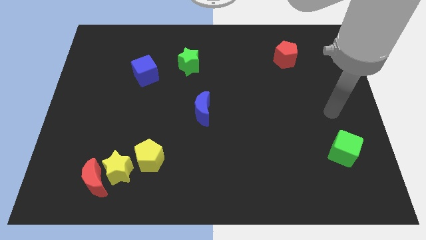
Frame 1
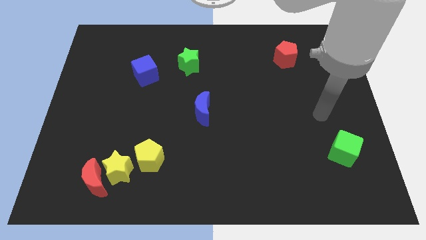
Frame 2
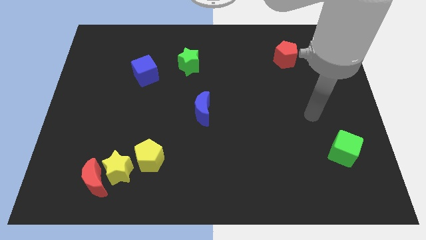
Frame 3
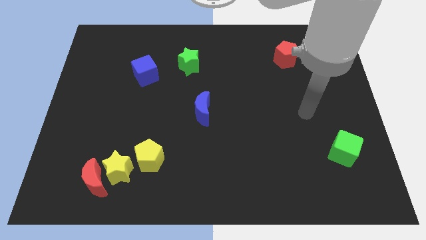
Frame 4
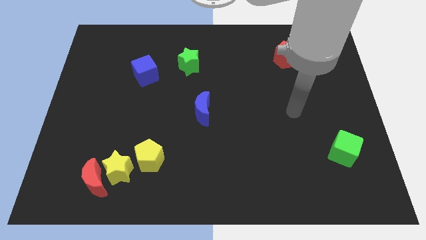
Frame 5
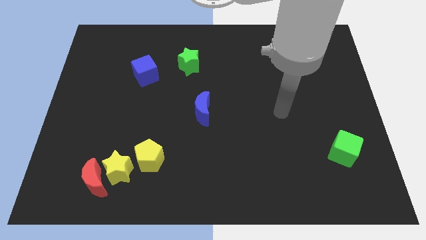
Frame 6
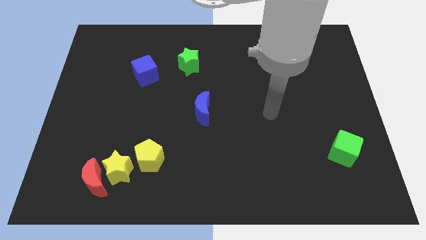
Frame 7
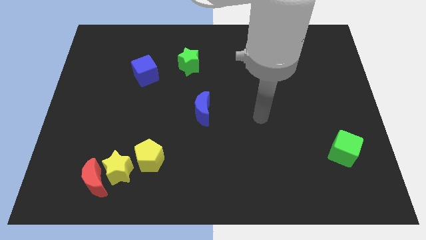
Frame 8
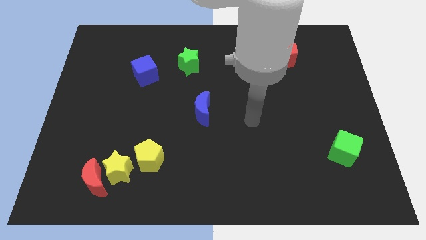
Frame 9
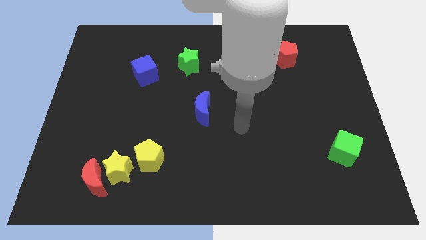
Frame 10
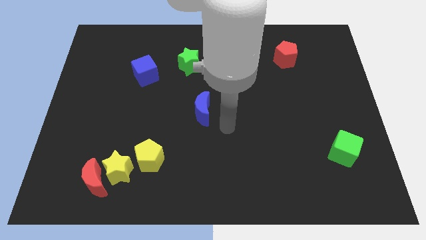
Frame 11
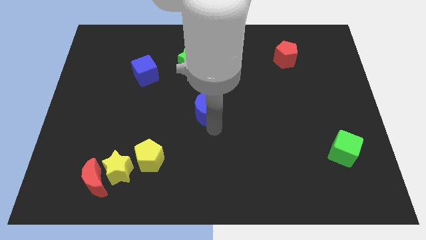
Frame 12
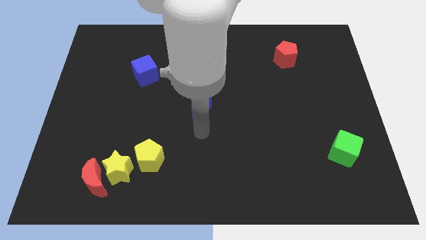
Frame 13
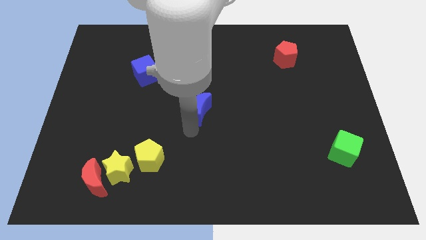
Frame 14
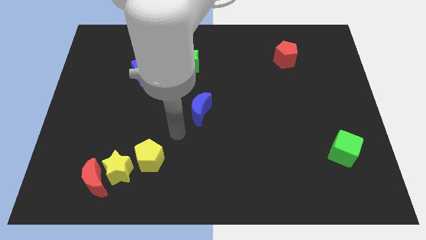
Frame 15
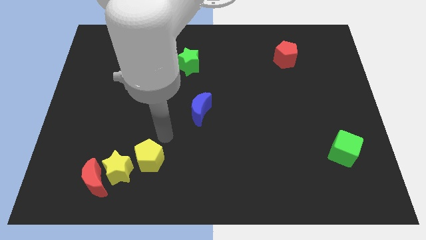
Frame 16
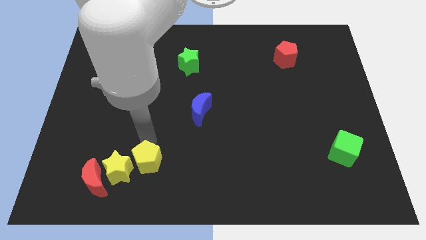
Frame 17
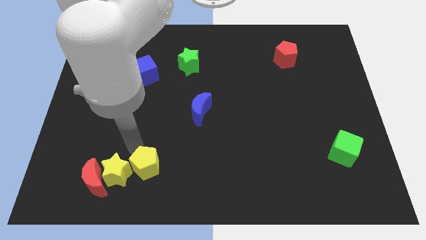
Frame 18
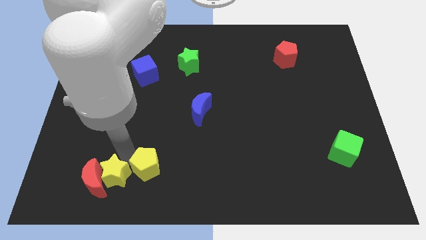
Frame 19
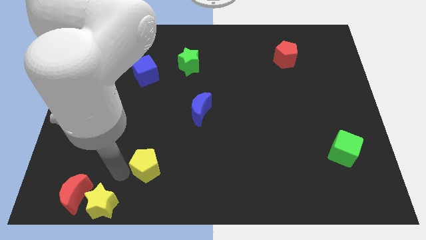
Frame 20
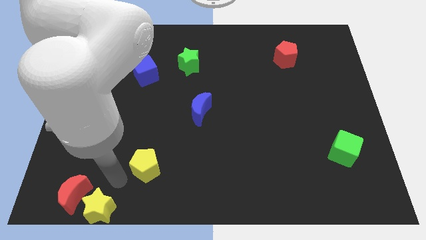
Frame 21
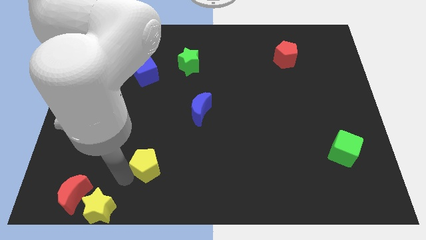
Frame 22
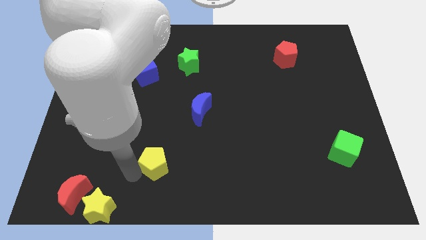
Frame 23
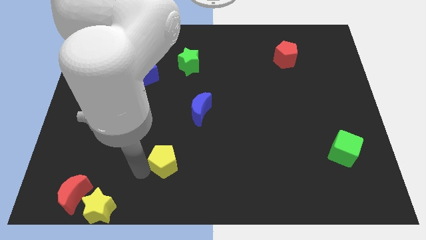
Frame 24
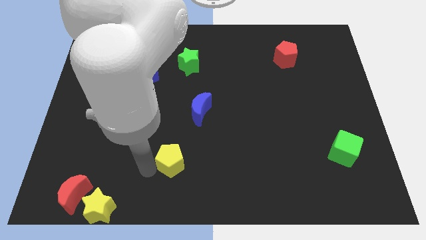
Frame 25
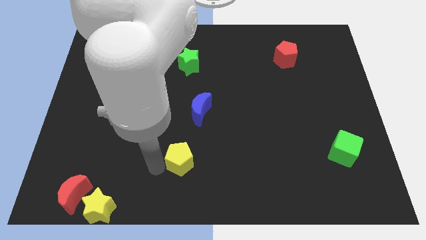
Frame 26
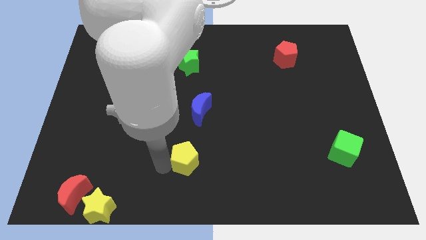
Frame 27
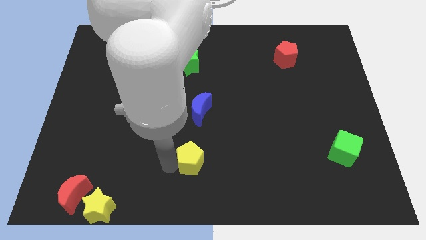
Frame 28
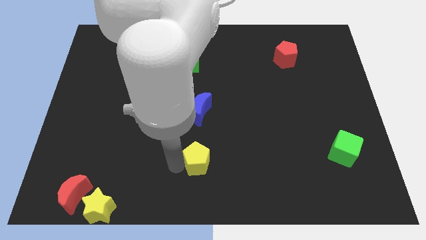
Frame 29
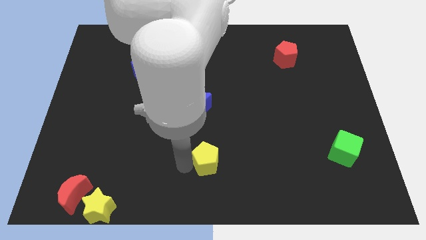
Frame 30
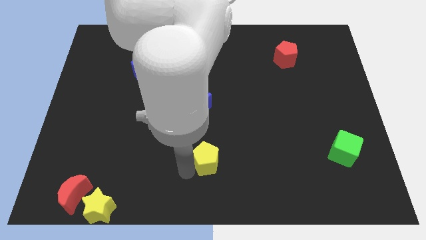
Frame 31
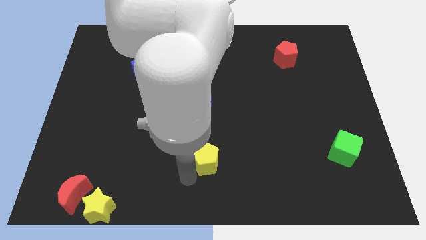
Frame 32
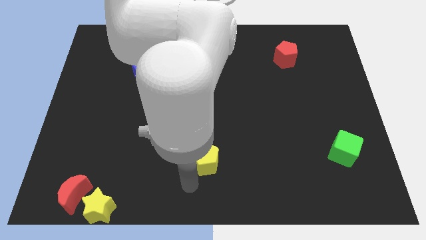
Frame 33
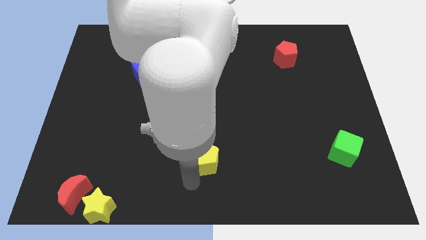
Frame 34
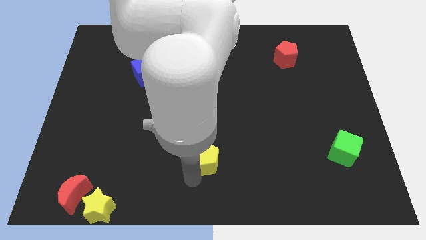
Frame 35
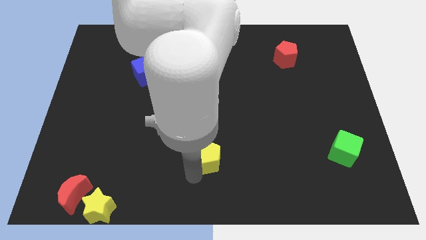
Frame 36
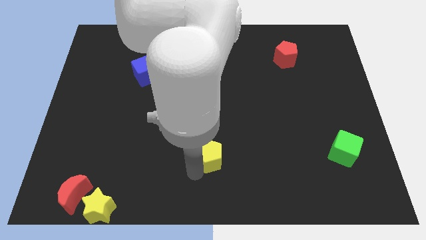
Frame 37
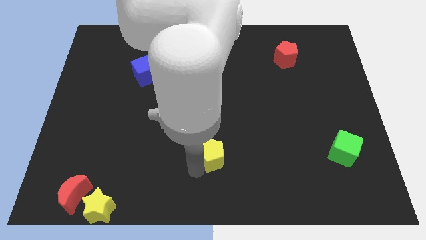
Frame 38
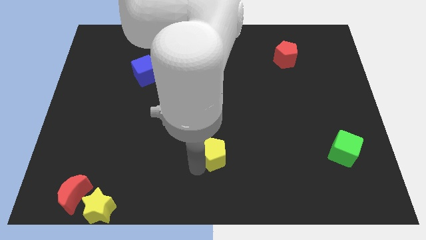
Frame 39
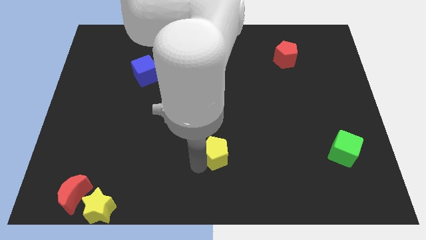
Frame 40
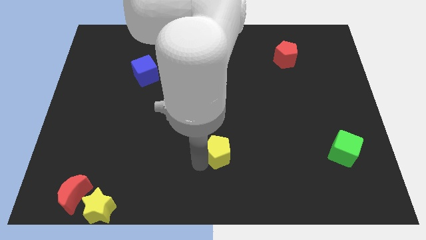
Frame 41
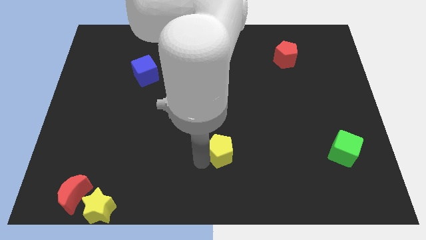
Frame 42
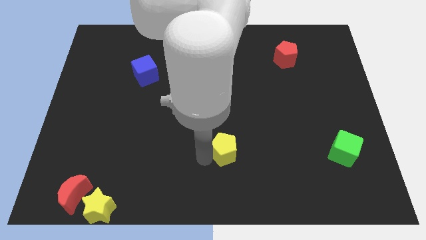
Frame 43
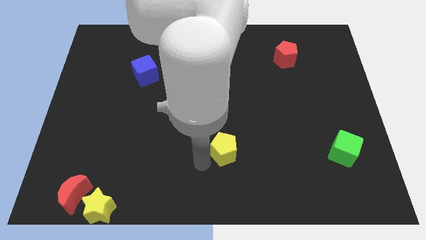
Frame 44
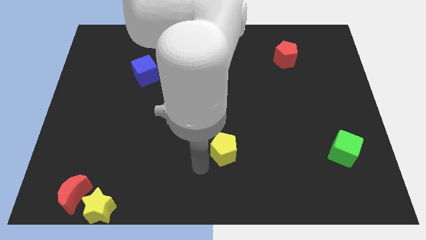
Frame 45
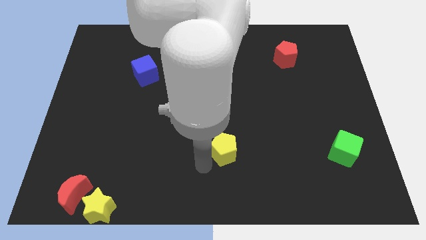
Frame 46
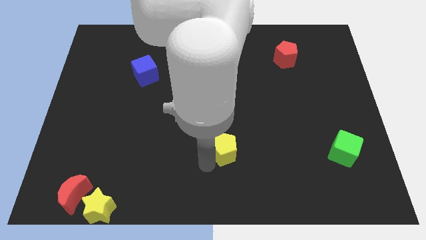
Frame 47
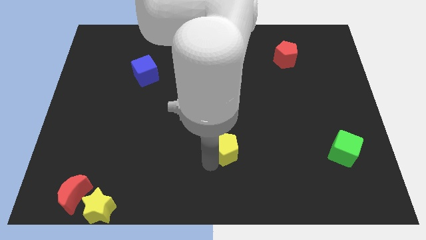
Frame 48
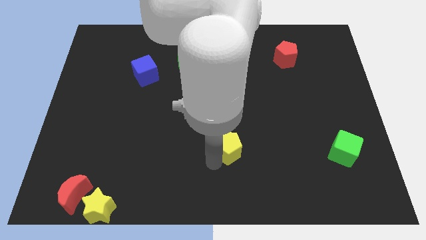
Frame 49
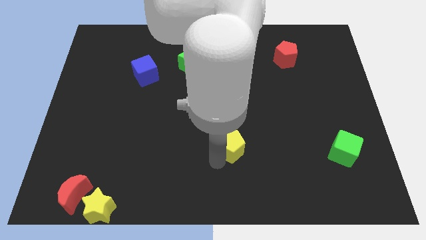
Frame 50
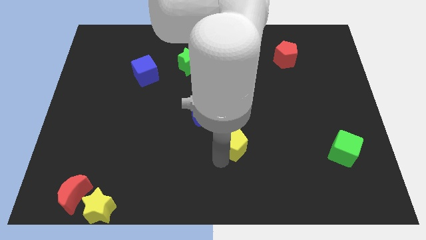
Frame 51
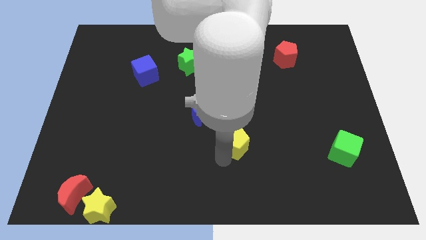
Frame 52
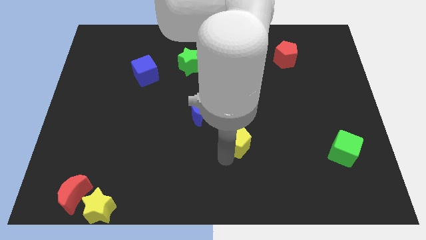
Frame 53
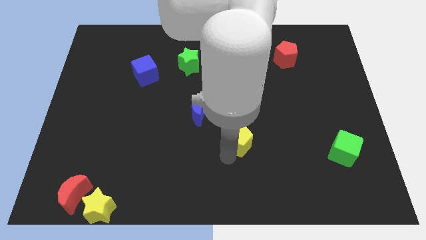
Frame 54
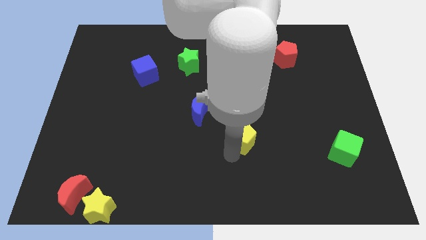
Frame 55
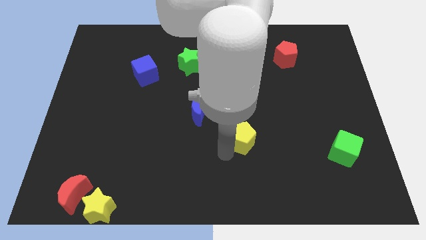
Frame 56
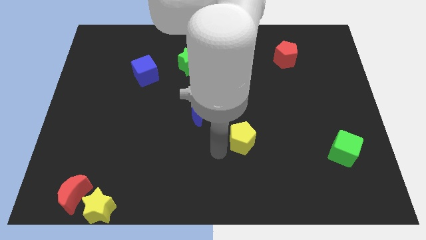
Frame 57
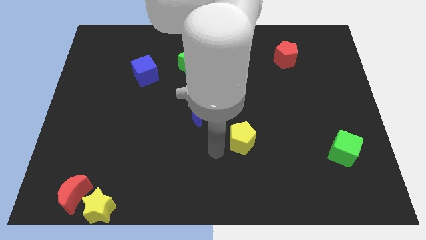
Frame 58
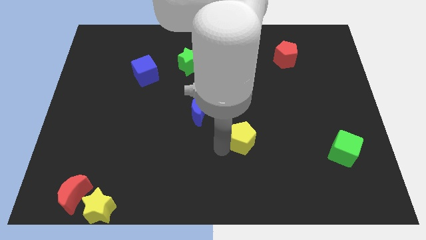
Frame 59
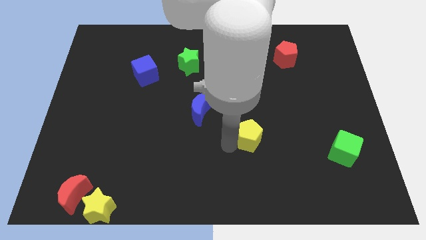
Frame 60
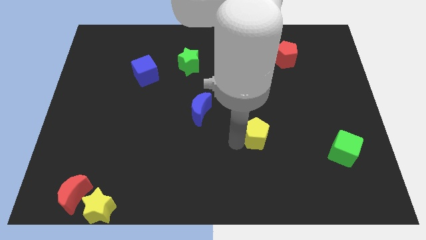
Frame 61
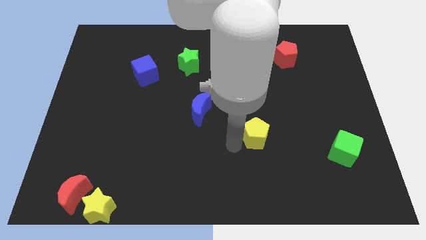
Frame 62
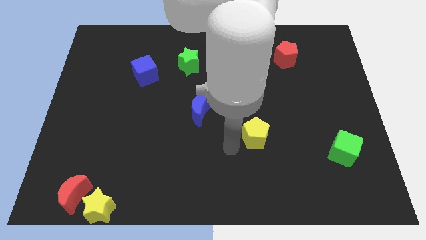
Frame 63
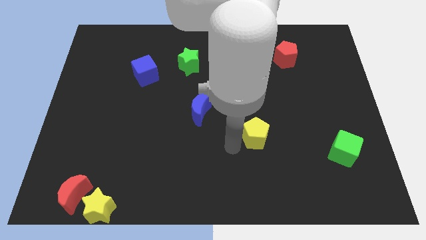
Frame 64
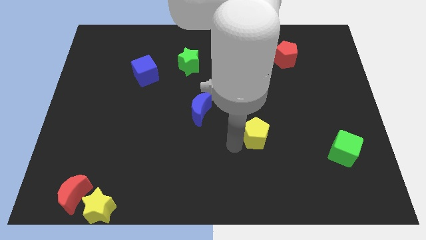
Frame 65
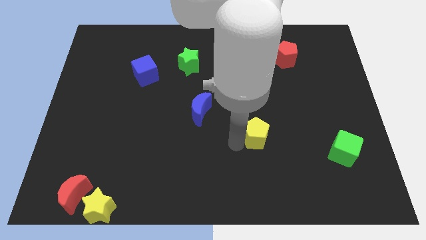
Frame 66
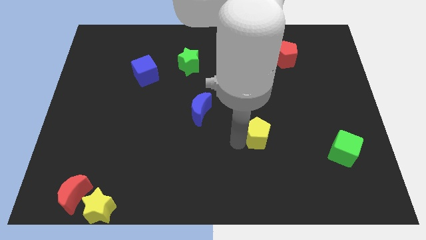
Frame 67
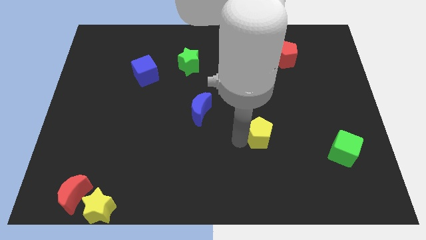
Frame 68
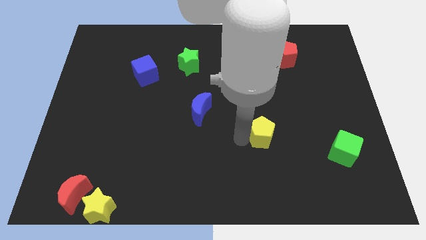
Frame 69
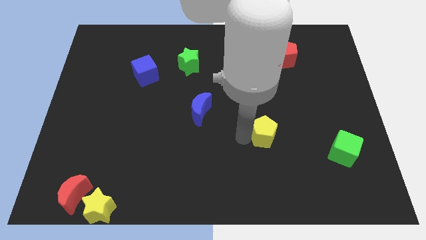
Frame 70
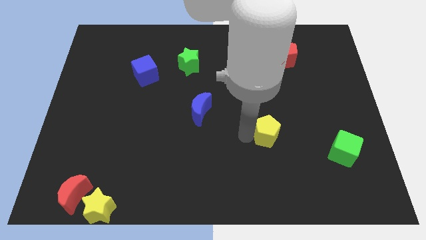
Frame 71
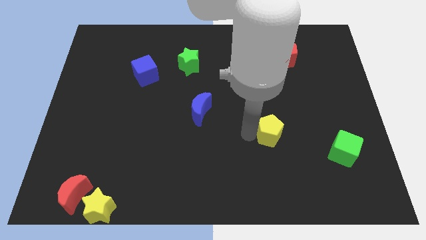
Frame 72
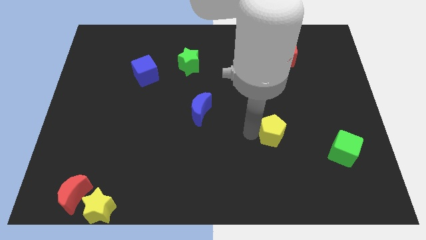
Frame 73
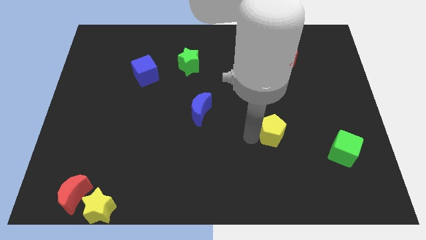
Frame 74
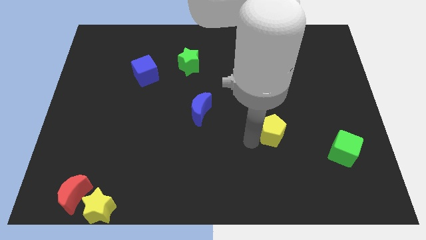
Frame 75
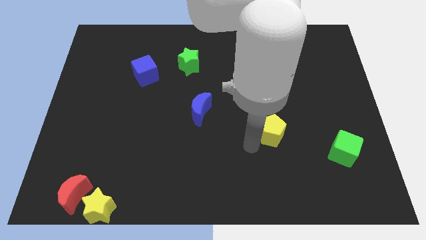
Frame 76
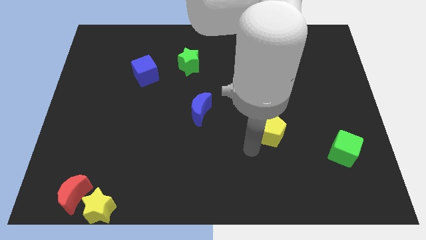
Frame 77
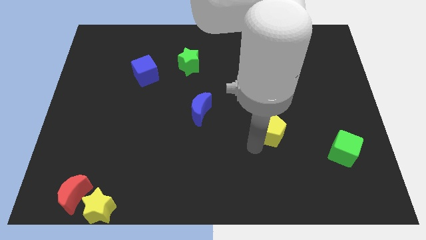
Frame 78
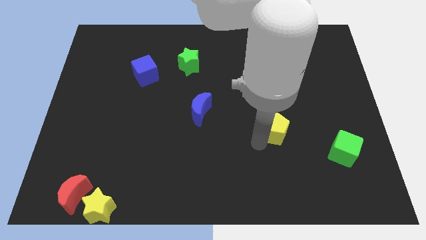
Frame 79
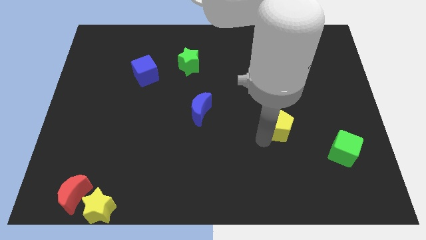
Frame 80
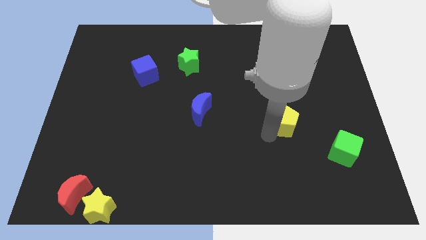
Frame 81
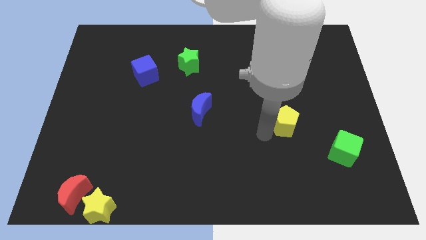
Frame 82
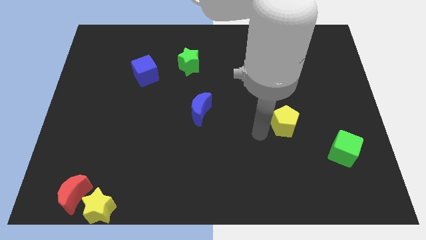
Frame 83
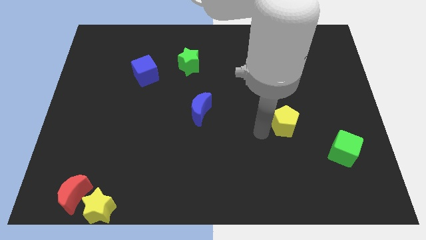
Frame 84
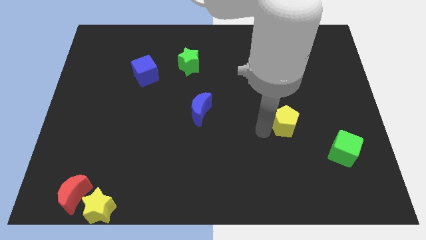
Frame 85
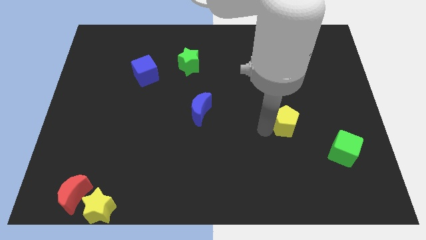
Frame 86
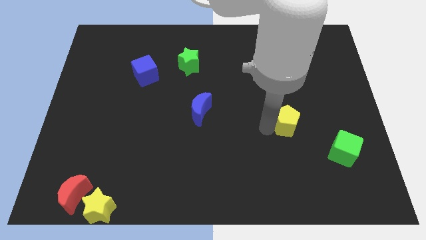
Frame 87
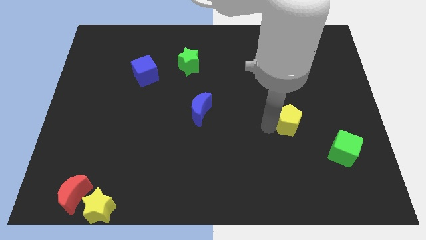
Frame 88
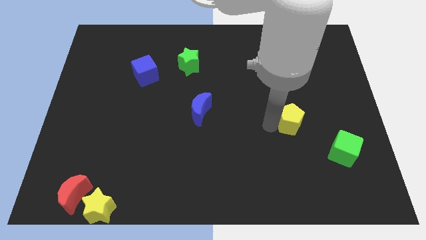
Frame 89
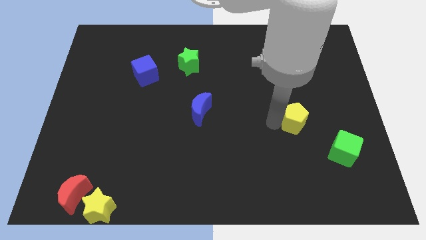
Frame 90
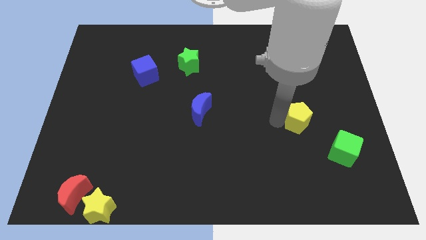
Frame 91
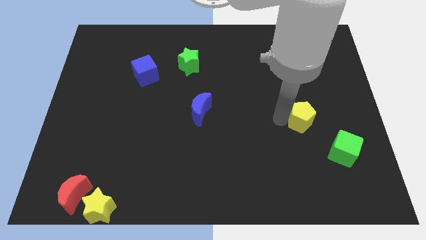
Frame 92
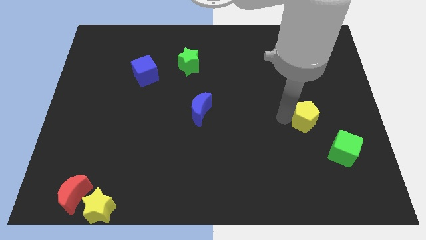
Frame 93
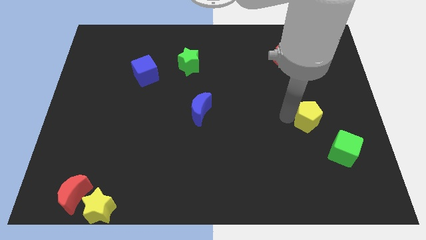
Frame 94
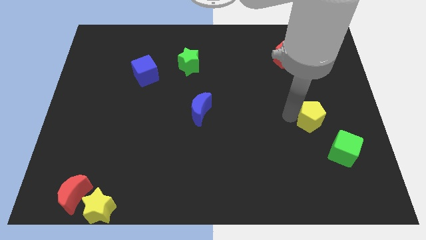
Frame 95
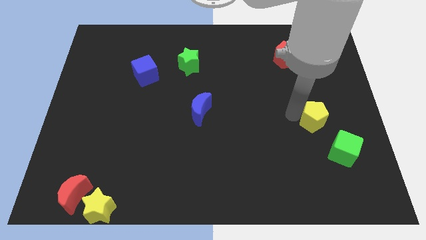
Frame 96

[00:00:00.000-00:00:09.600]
push the yellow pentagon to the top of the green cube
